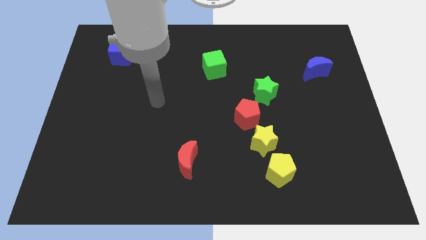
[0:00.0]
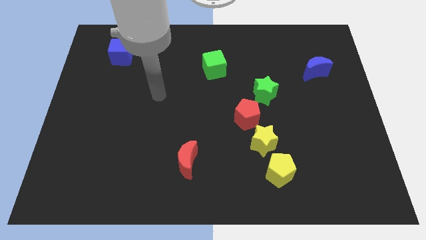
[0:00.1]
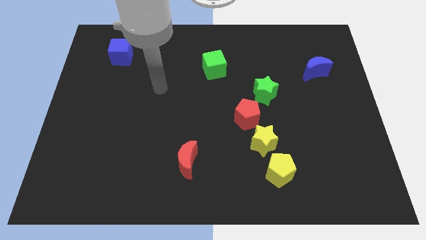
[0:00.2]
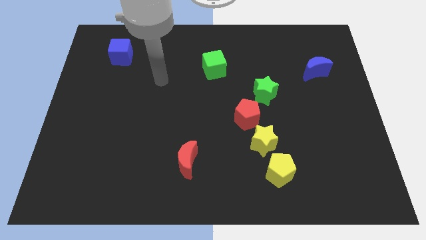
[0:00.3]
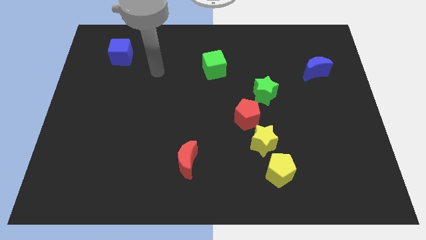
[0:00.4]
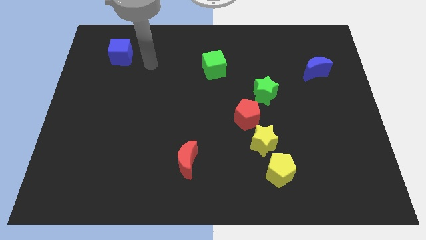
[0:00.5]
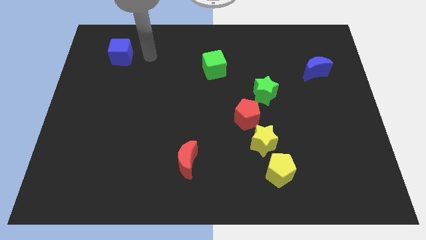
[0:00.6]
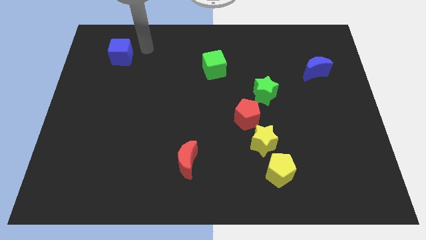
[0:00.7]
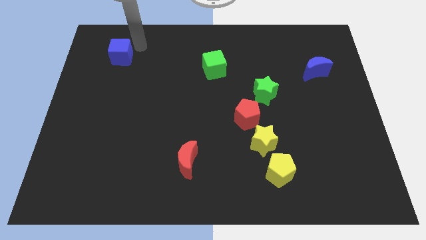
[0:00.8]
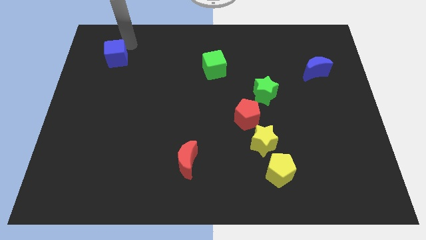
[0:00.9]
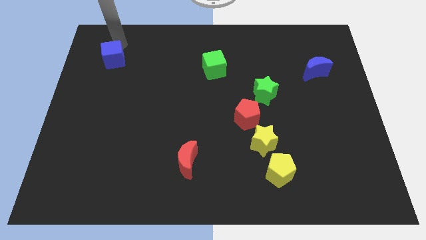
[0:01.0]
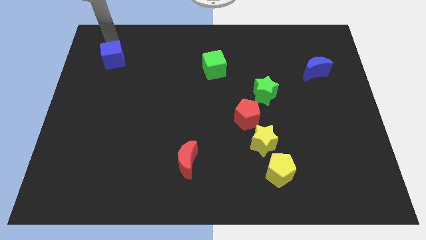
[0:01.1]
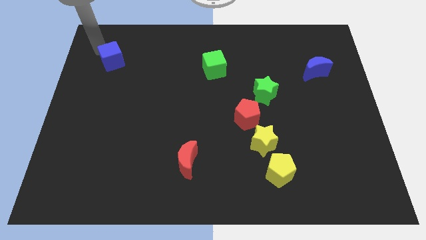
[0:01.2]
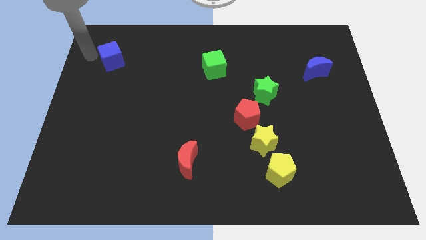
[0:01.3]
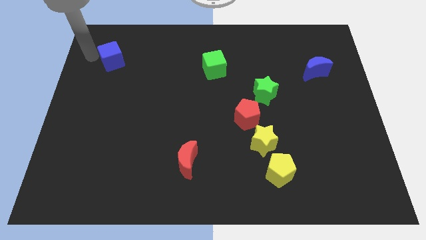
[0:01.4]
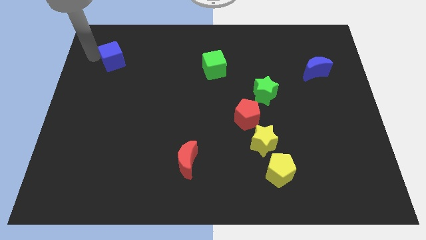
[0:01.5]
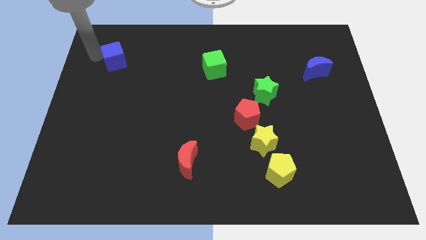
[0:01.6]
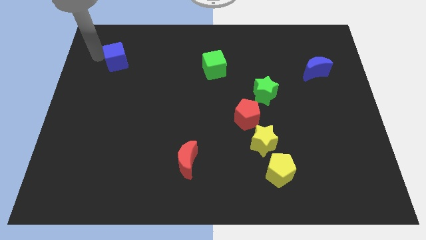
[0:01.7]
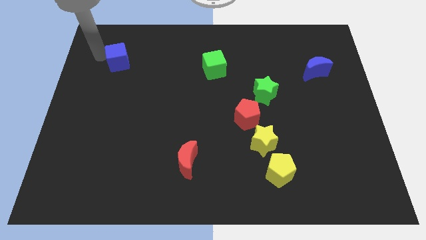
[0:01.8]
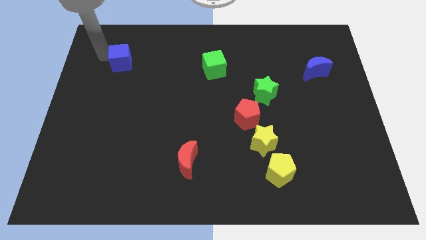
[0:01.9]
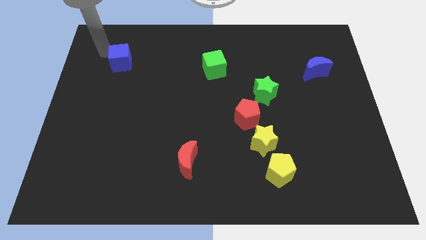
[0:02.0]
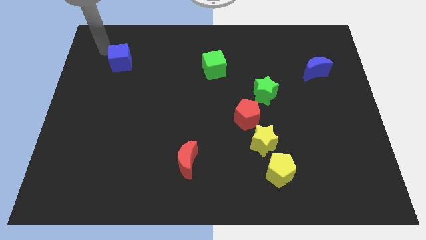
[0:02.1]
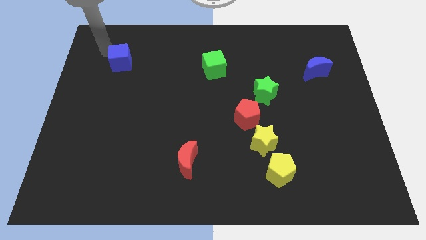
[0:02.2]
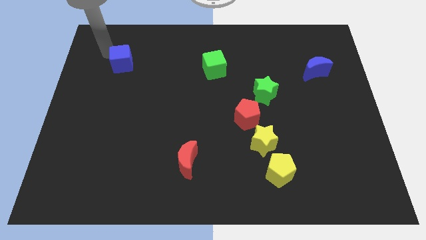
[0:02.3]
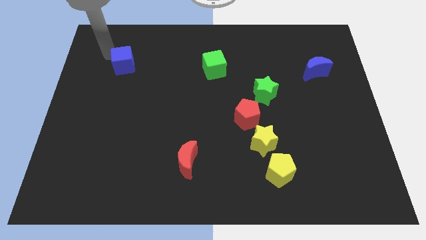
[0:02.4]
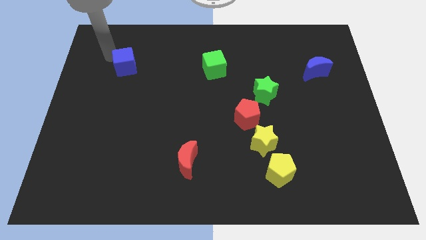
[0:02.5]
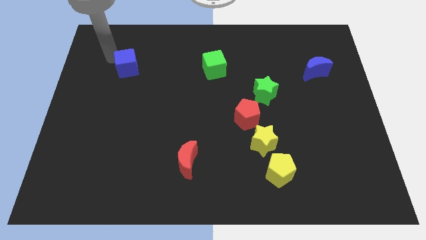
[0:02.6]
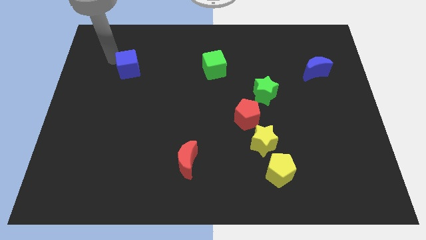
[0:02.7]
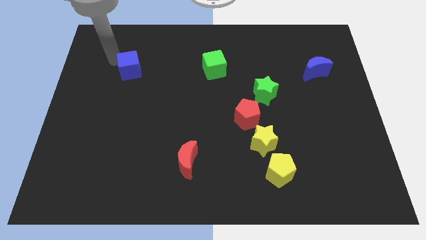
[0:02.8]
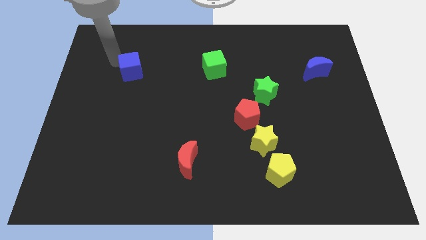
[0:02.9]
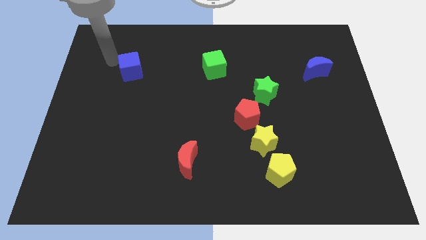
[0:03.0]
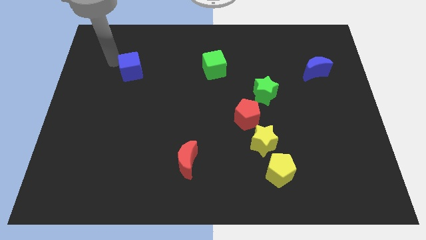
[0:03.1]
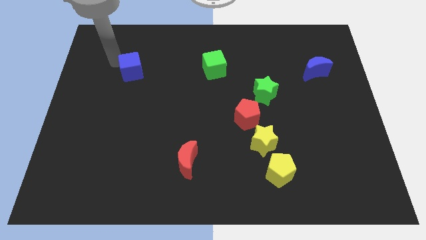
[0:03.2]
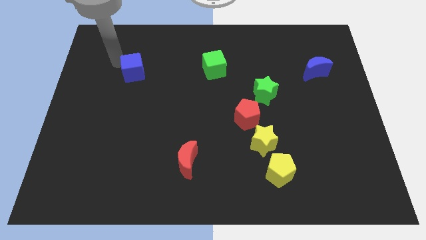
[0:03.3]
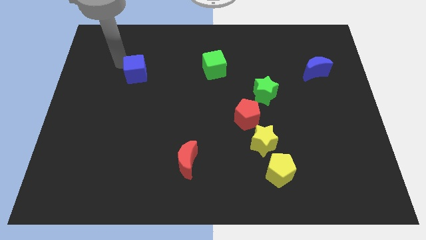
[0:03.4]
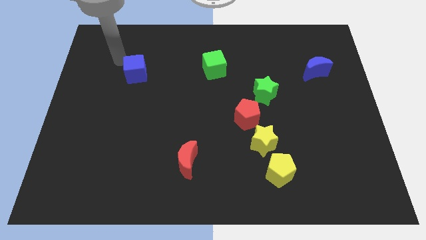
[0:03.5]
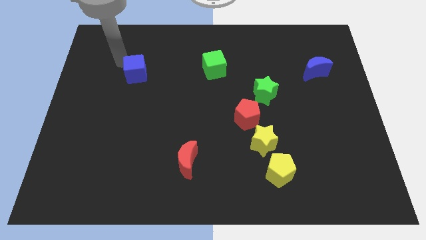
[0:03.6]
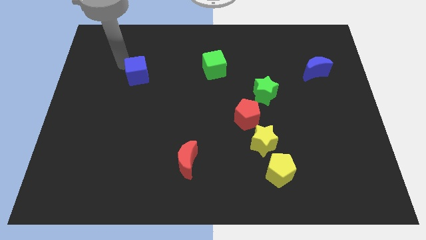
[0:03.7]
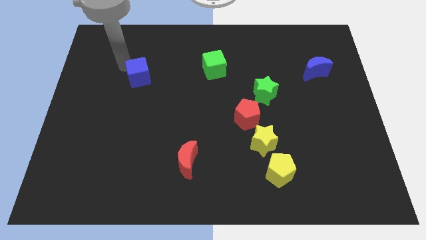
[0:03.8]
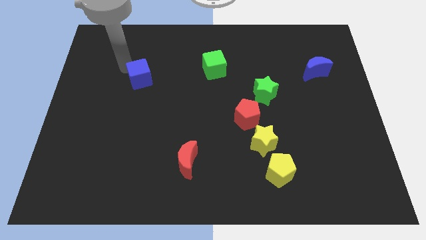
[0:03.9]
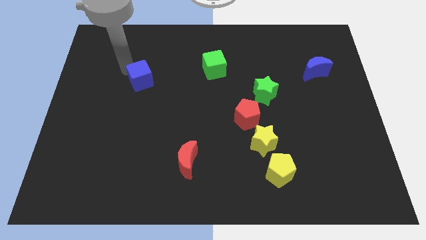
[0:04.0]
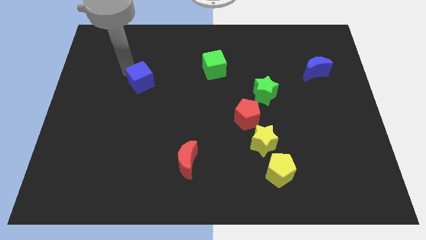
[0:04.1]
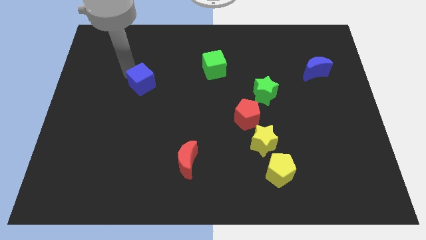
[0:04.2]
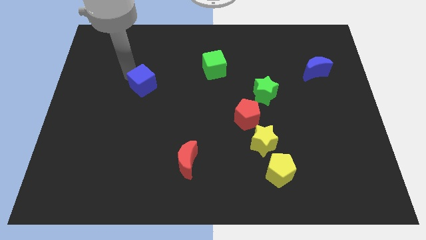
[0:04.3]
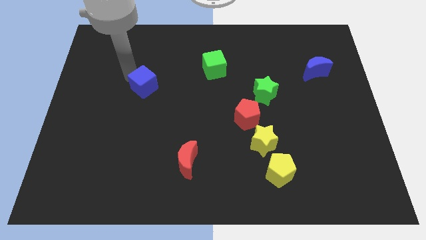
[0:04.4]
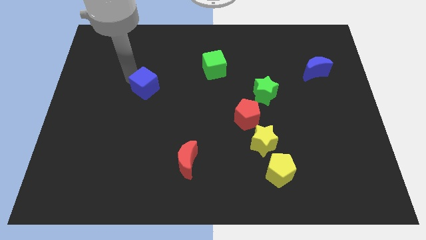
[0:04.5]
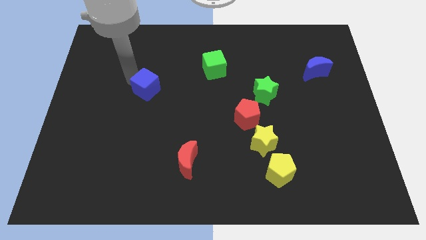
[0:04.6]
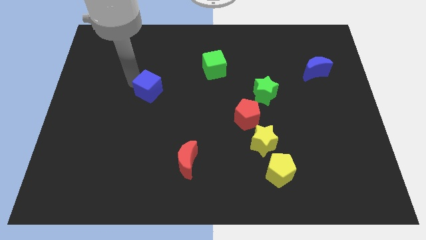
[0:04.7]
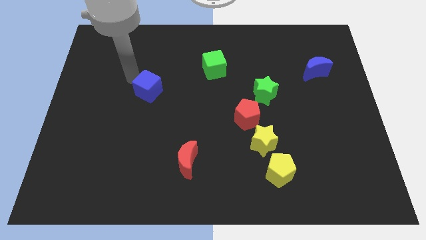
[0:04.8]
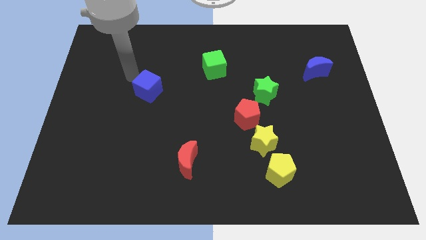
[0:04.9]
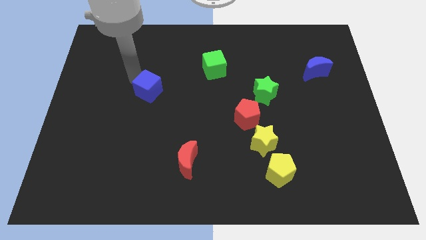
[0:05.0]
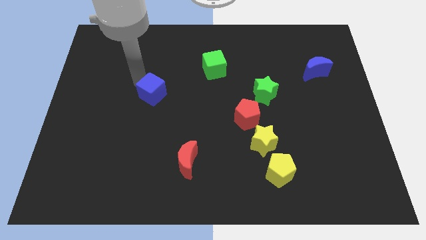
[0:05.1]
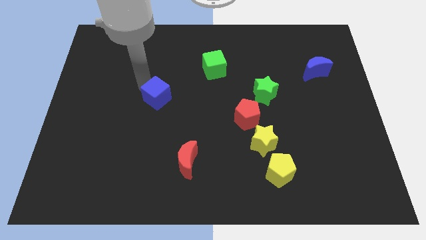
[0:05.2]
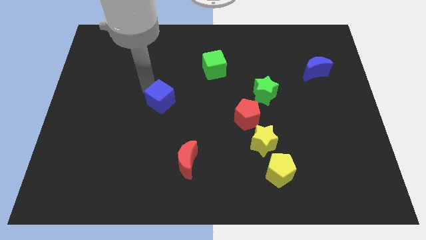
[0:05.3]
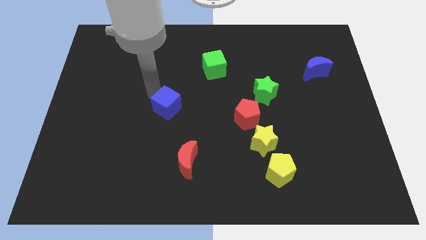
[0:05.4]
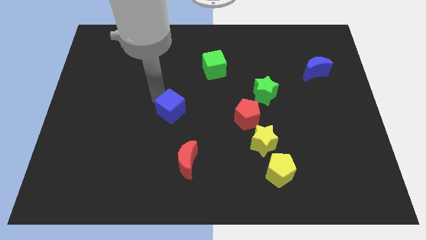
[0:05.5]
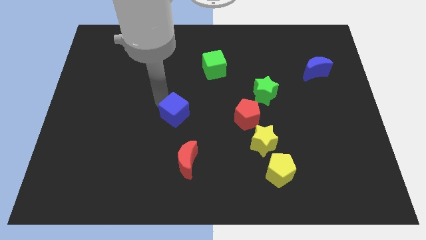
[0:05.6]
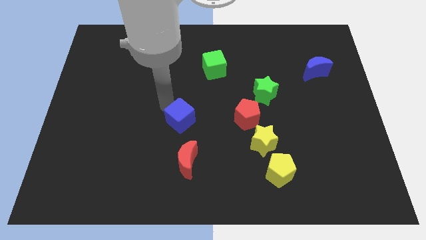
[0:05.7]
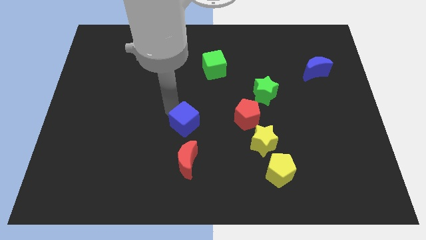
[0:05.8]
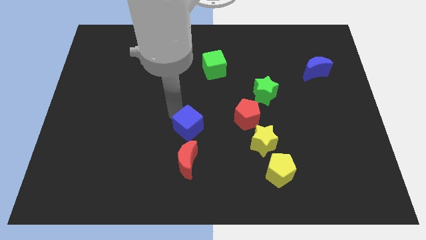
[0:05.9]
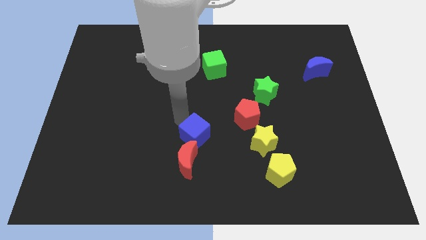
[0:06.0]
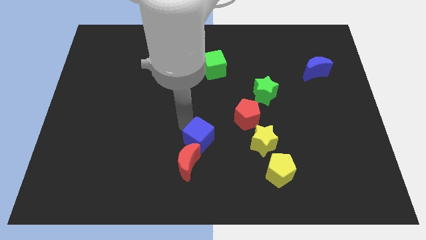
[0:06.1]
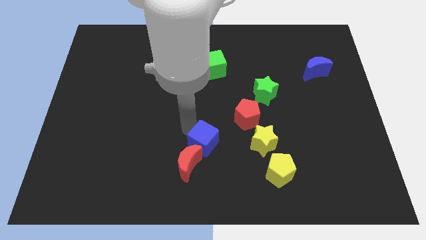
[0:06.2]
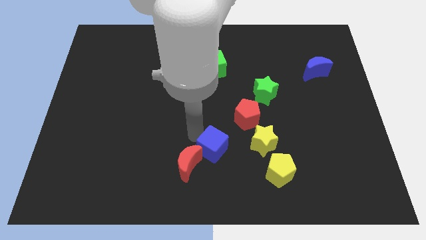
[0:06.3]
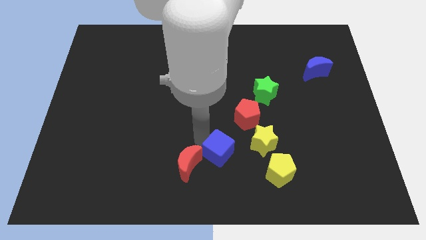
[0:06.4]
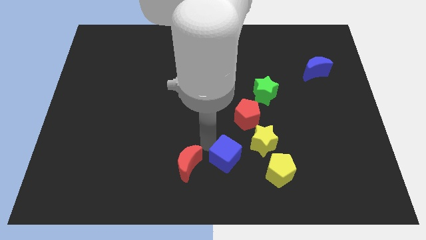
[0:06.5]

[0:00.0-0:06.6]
put the blue cube to the bottom left side of the yellow star
